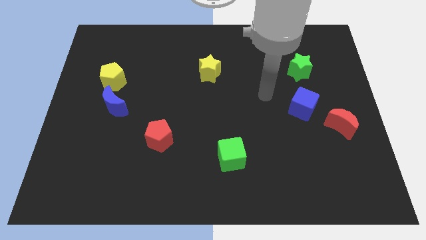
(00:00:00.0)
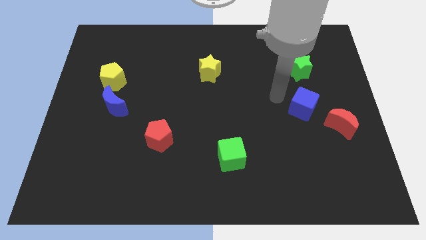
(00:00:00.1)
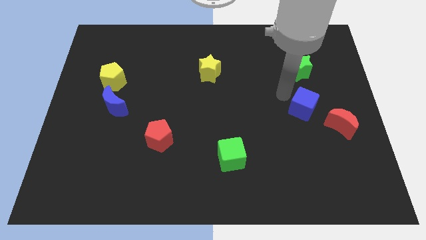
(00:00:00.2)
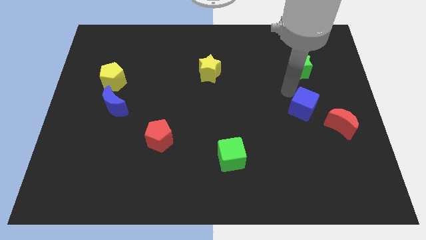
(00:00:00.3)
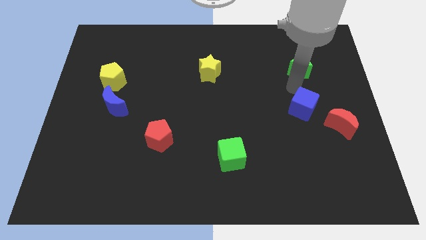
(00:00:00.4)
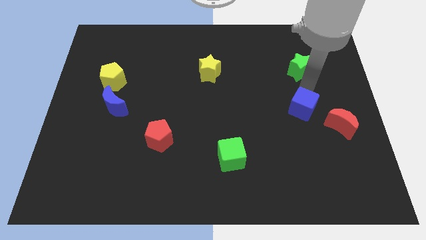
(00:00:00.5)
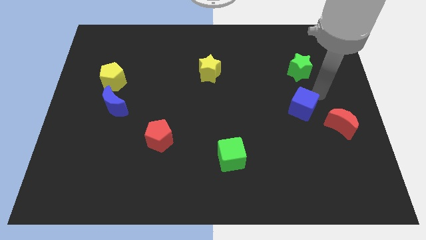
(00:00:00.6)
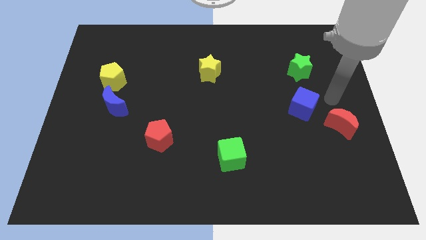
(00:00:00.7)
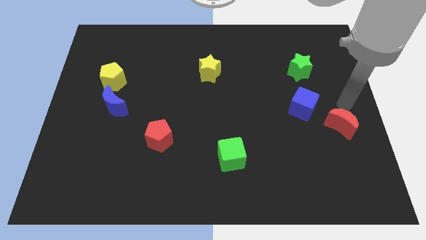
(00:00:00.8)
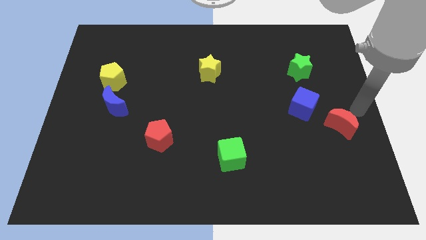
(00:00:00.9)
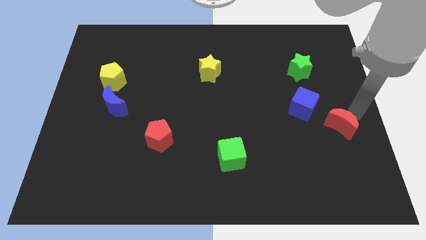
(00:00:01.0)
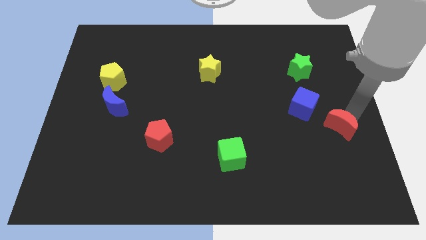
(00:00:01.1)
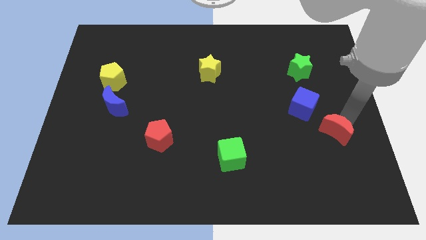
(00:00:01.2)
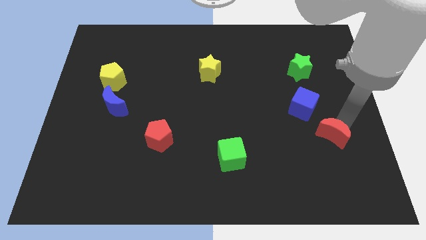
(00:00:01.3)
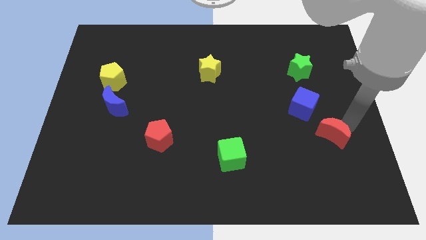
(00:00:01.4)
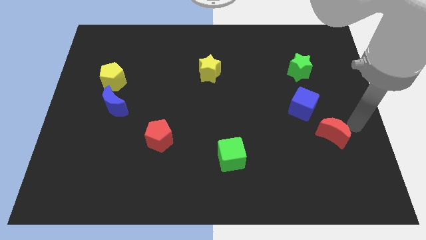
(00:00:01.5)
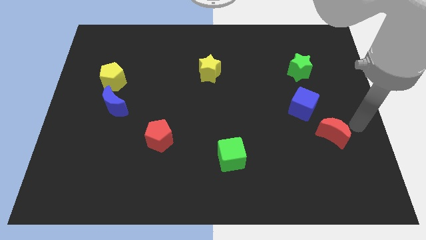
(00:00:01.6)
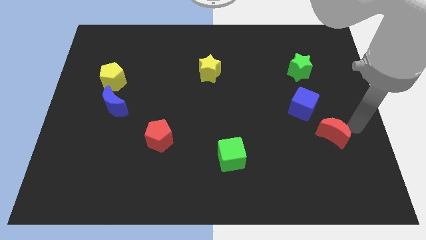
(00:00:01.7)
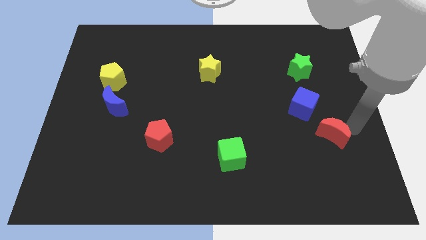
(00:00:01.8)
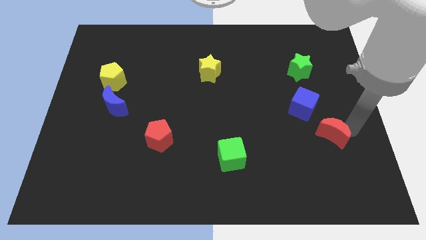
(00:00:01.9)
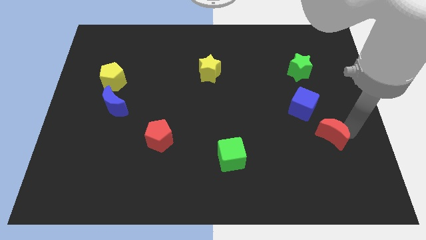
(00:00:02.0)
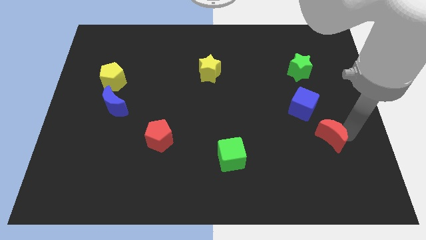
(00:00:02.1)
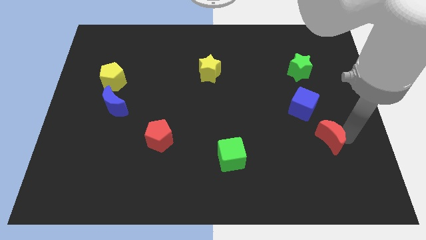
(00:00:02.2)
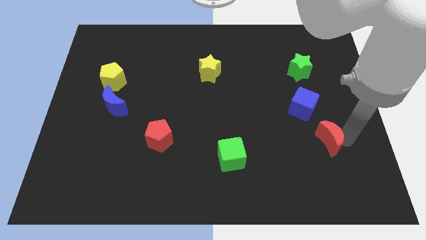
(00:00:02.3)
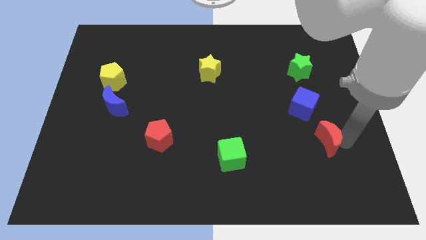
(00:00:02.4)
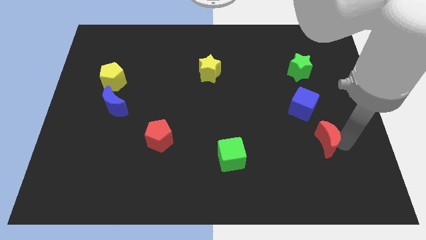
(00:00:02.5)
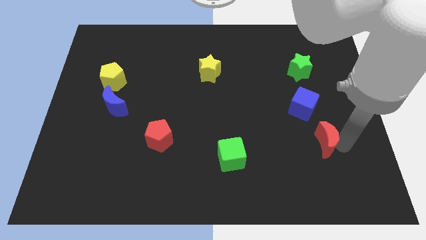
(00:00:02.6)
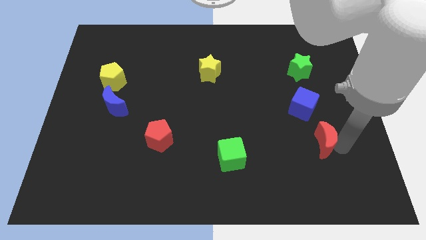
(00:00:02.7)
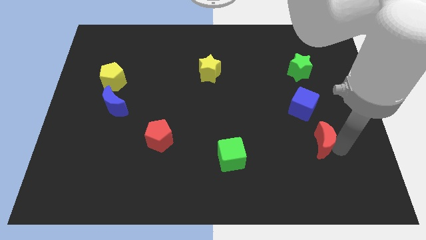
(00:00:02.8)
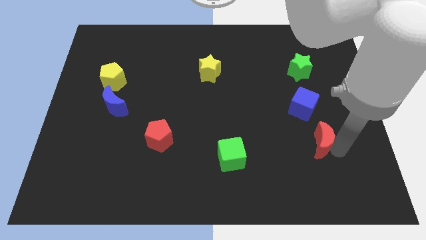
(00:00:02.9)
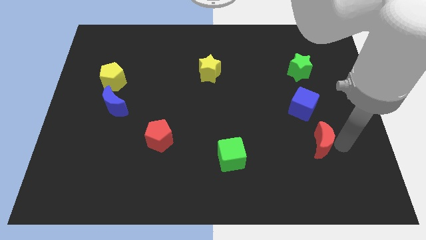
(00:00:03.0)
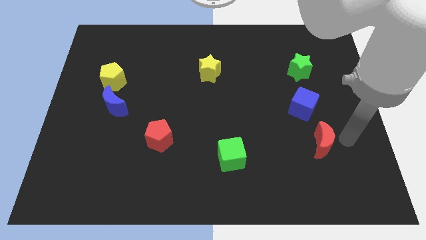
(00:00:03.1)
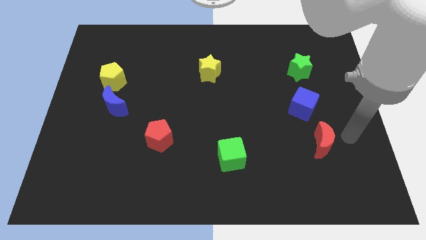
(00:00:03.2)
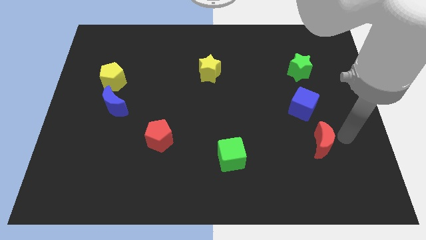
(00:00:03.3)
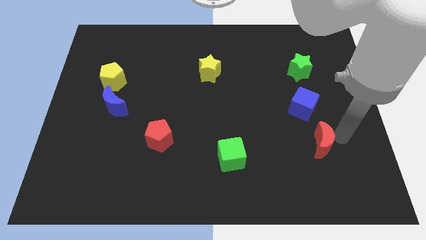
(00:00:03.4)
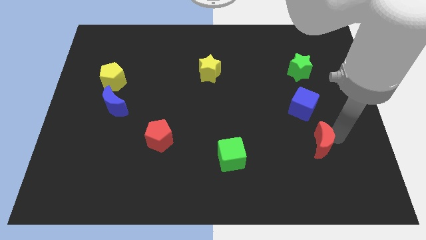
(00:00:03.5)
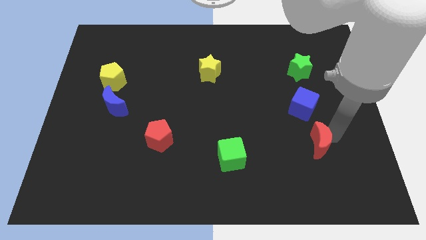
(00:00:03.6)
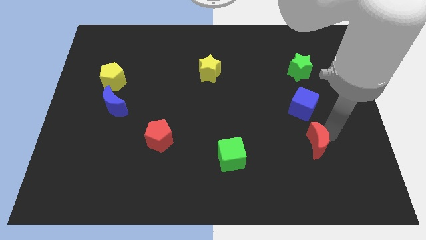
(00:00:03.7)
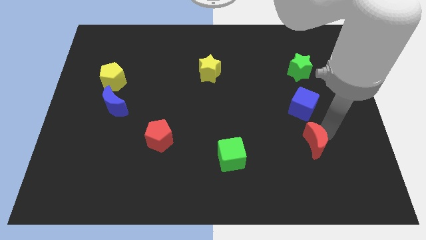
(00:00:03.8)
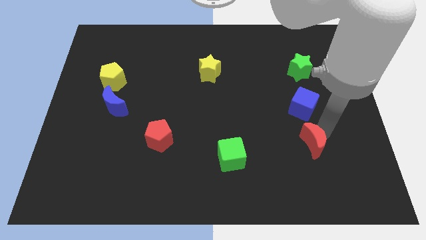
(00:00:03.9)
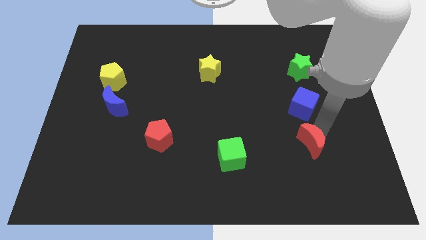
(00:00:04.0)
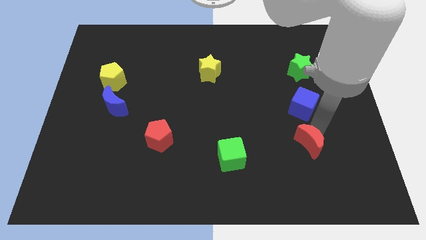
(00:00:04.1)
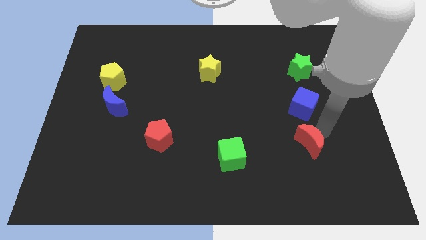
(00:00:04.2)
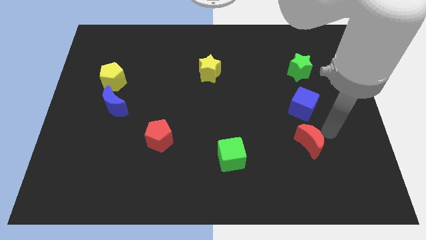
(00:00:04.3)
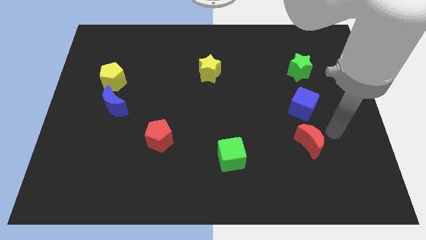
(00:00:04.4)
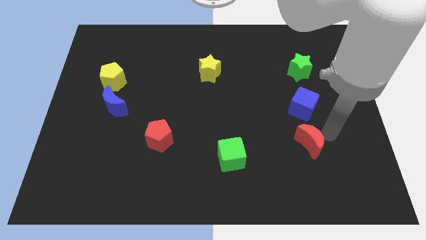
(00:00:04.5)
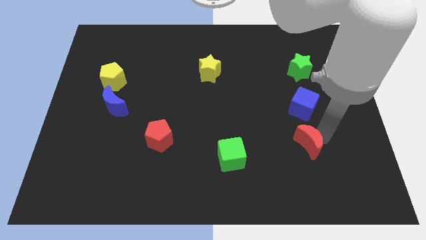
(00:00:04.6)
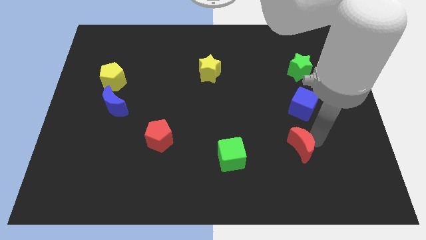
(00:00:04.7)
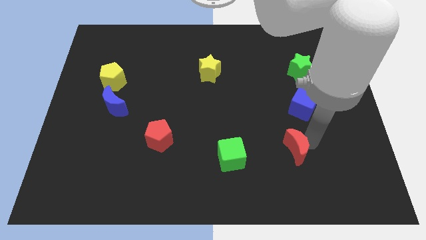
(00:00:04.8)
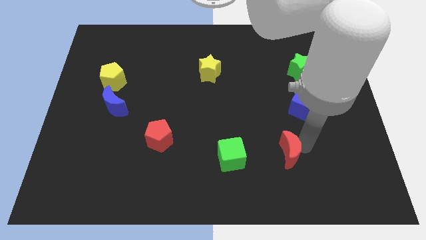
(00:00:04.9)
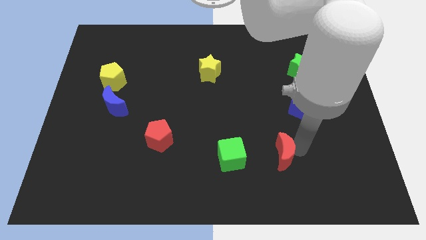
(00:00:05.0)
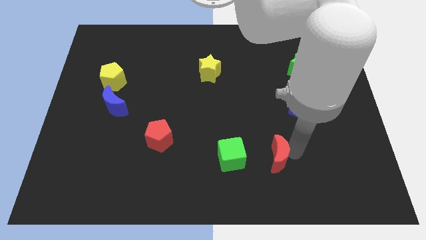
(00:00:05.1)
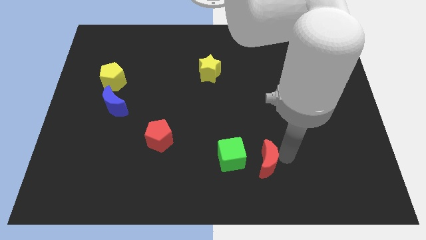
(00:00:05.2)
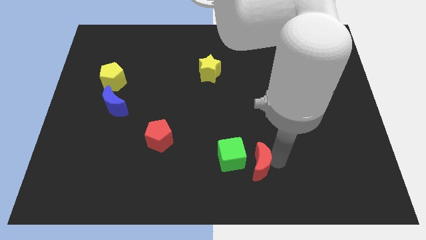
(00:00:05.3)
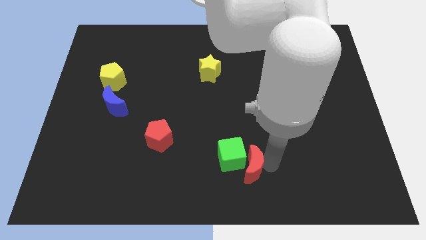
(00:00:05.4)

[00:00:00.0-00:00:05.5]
push the red moon next to the green cube

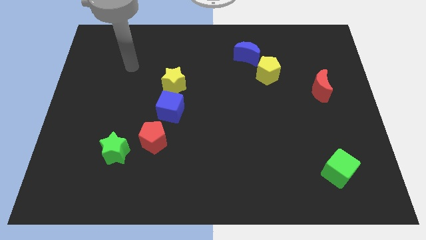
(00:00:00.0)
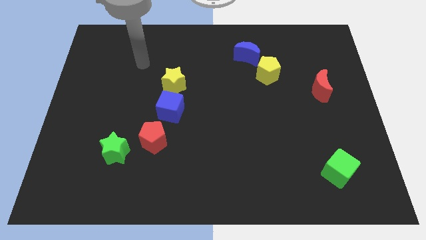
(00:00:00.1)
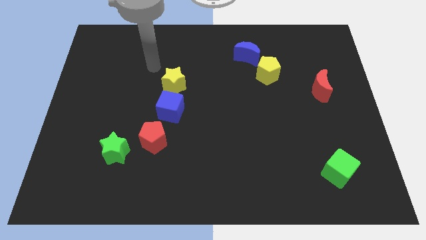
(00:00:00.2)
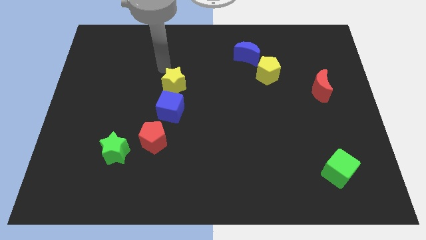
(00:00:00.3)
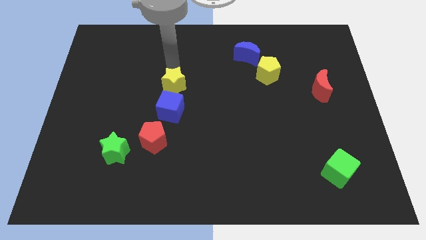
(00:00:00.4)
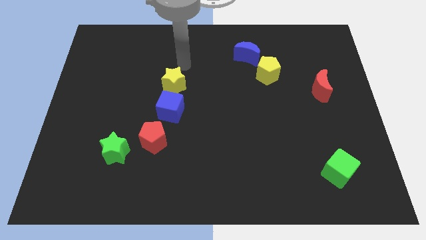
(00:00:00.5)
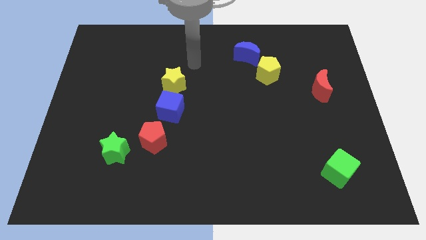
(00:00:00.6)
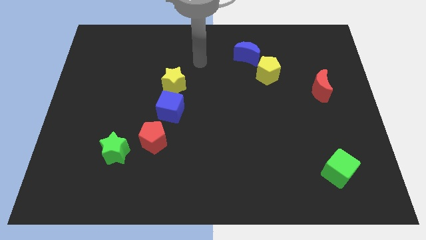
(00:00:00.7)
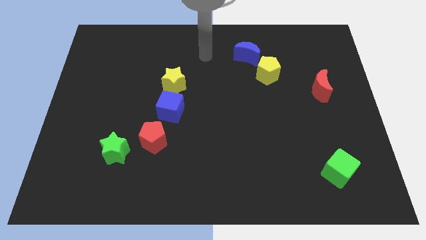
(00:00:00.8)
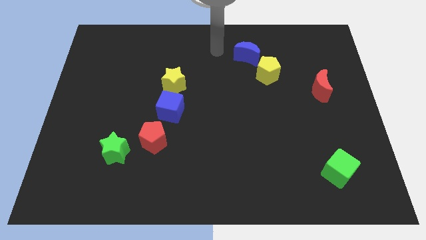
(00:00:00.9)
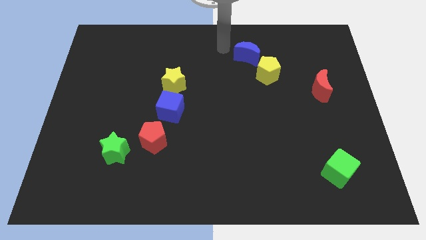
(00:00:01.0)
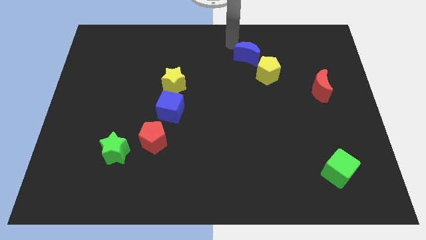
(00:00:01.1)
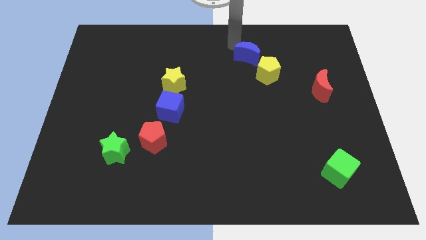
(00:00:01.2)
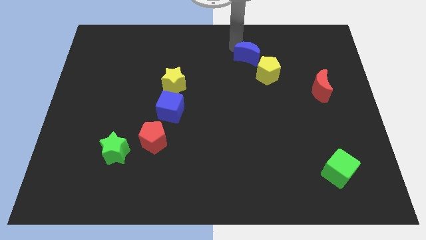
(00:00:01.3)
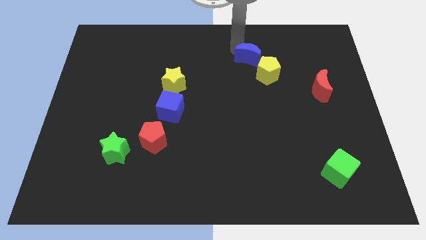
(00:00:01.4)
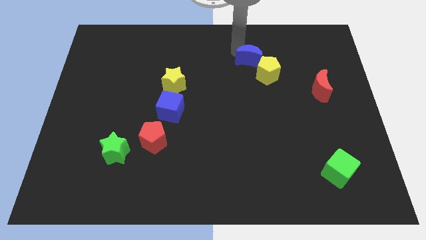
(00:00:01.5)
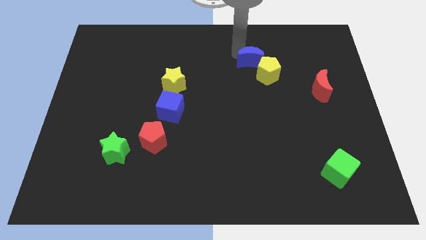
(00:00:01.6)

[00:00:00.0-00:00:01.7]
put the blue moon towards the yellow pentagon
